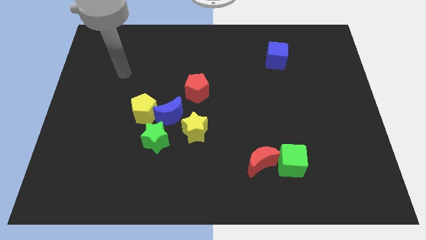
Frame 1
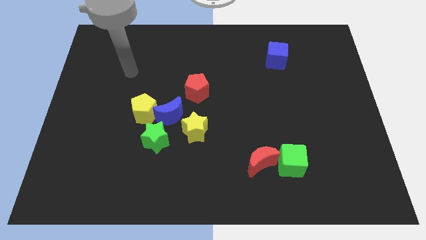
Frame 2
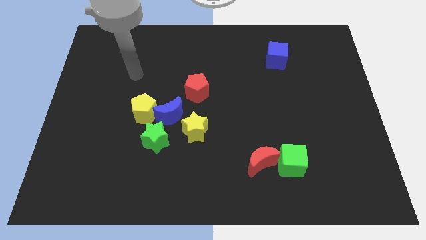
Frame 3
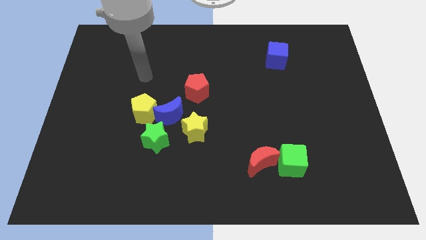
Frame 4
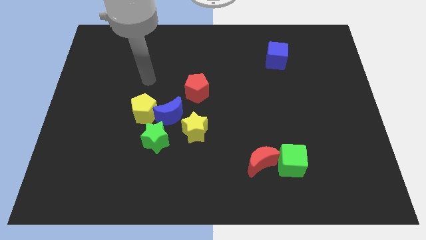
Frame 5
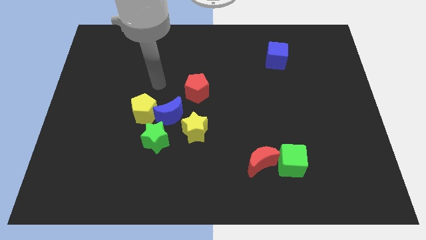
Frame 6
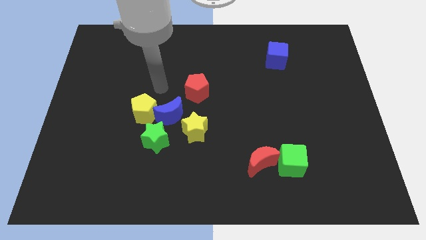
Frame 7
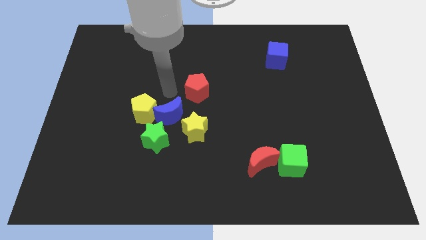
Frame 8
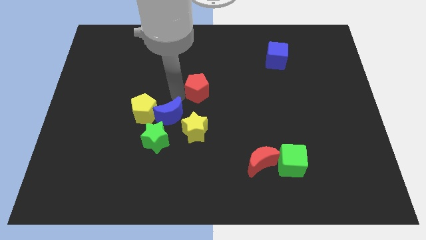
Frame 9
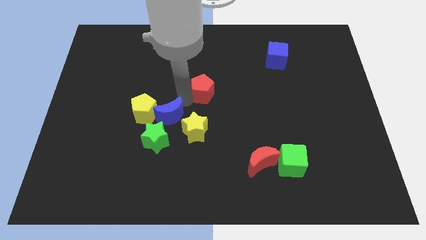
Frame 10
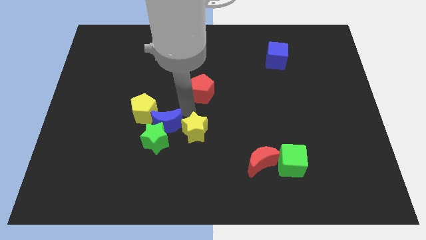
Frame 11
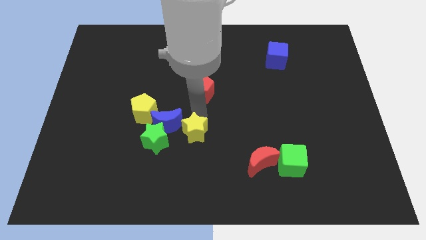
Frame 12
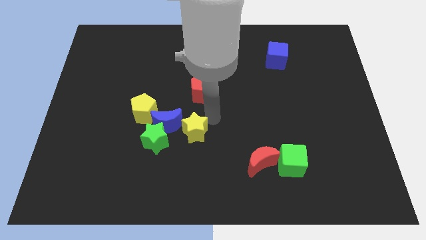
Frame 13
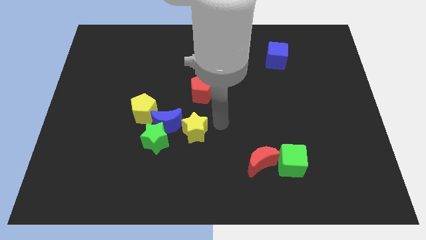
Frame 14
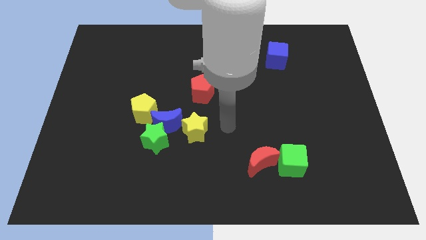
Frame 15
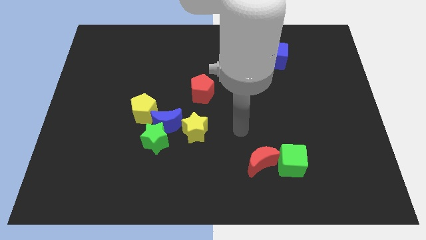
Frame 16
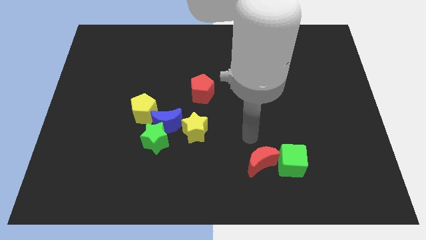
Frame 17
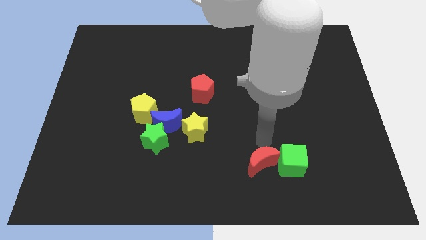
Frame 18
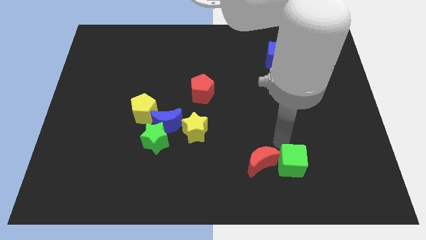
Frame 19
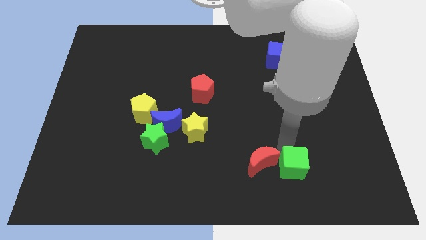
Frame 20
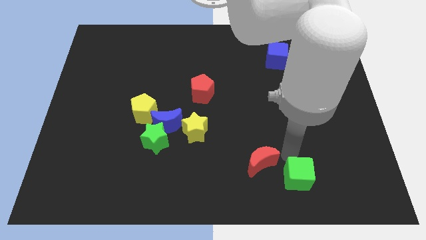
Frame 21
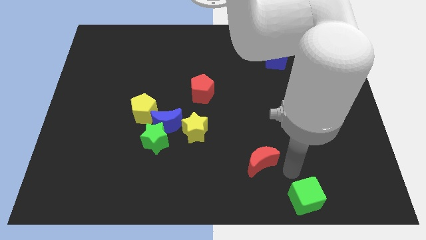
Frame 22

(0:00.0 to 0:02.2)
separate the red moon from the green cube

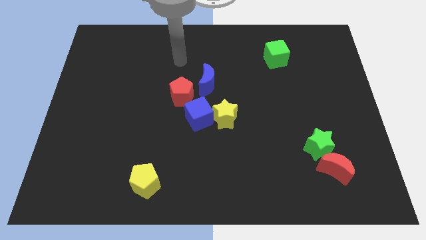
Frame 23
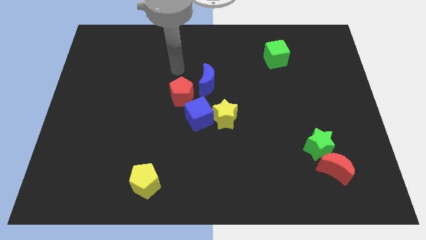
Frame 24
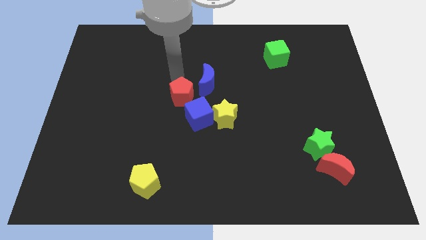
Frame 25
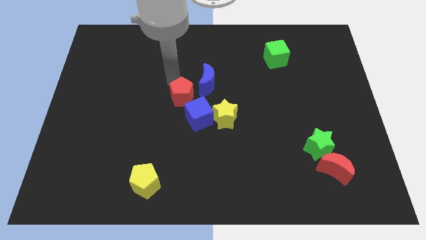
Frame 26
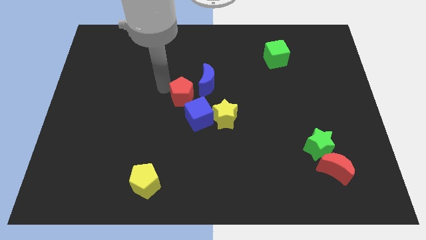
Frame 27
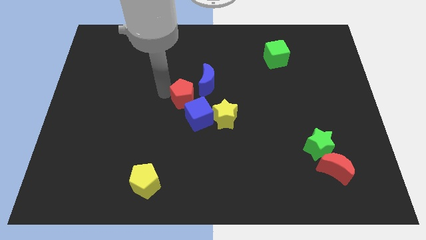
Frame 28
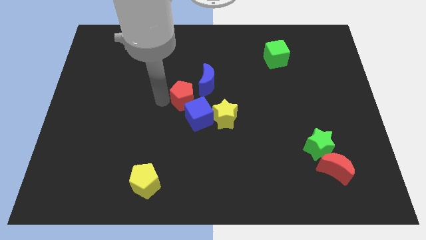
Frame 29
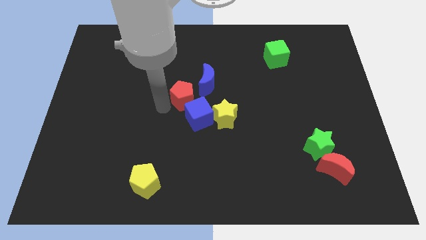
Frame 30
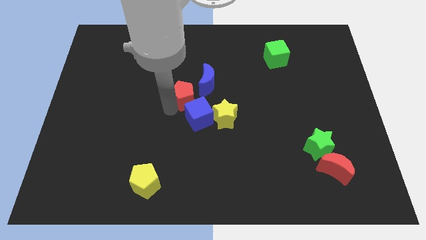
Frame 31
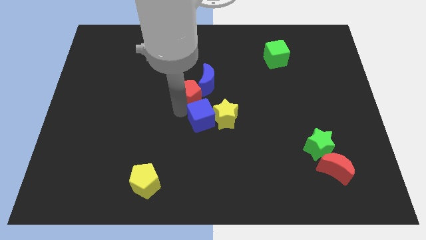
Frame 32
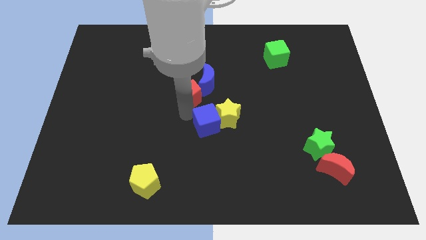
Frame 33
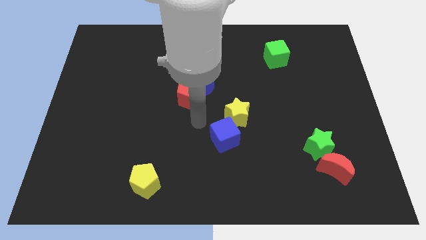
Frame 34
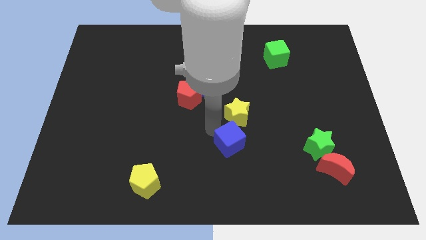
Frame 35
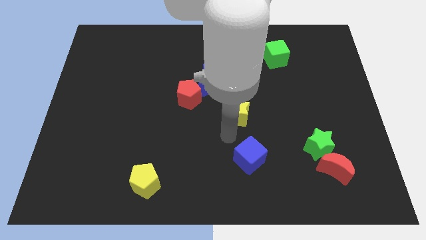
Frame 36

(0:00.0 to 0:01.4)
pull the yellow star apart from the blue cube

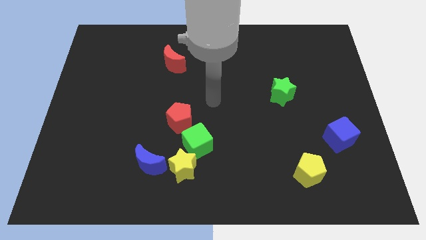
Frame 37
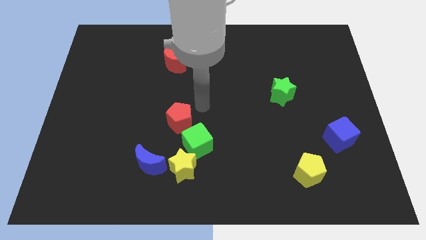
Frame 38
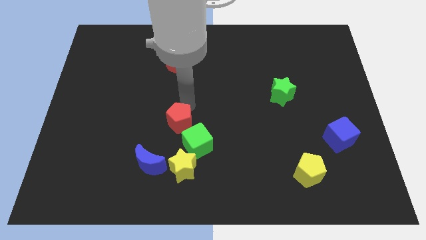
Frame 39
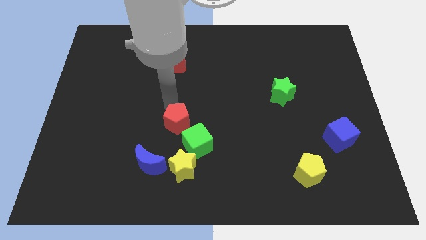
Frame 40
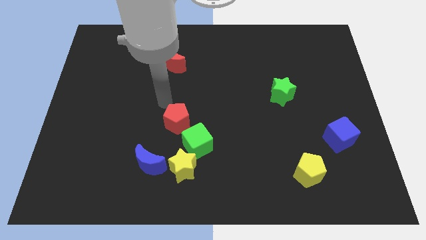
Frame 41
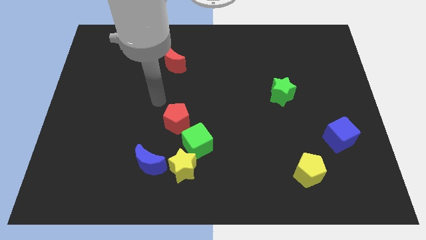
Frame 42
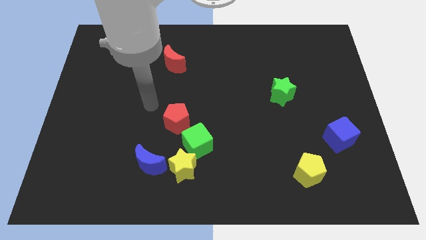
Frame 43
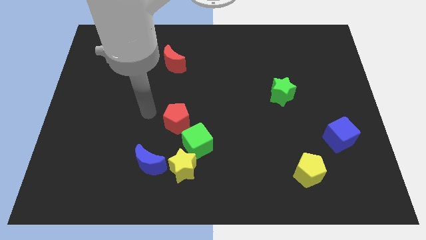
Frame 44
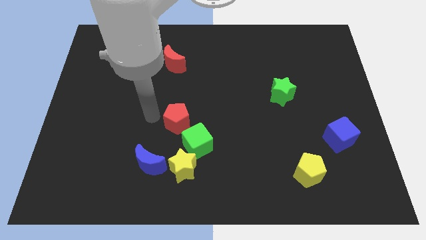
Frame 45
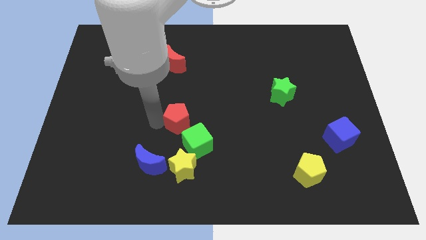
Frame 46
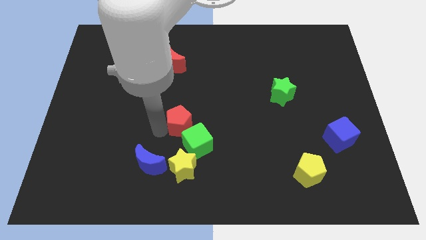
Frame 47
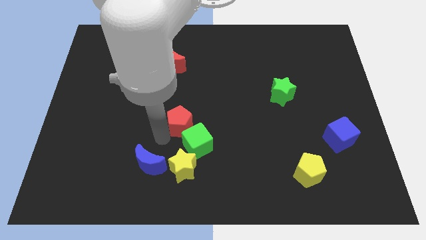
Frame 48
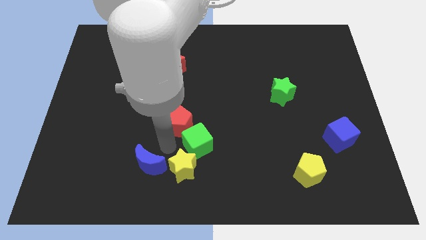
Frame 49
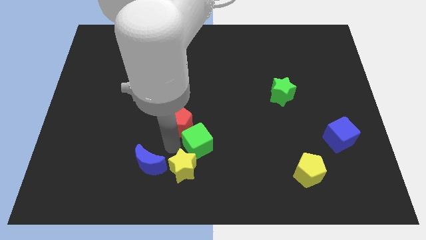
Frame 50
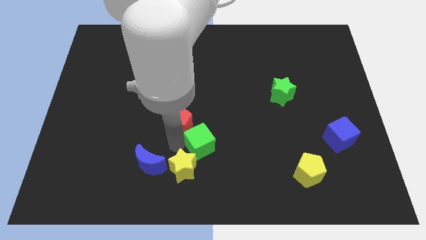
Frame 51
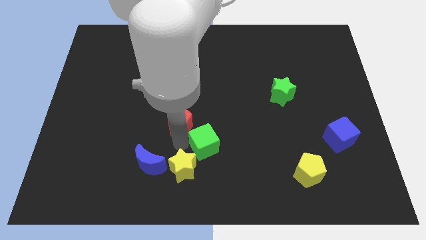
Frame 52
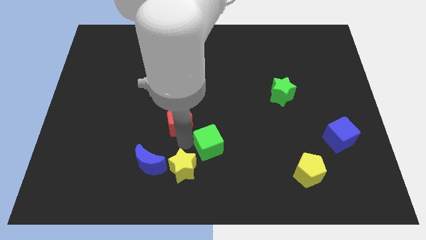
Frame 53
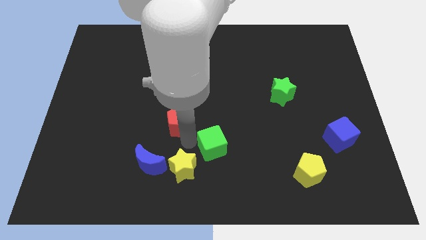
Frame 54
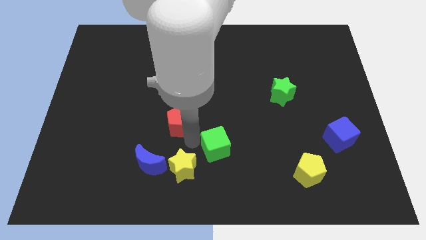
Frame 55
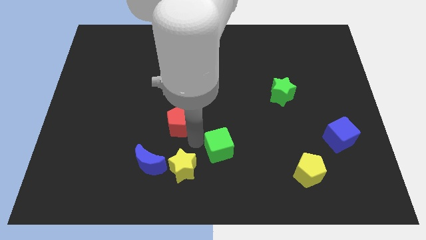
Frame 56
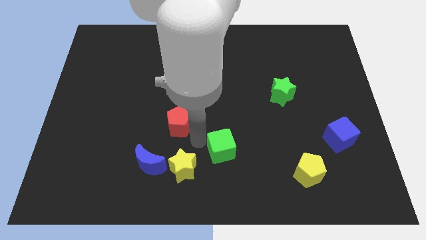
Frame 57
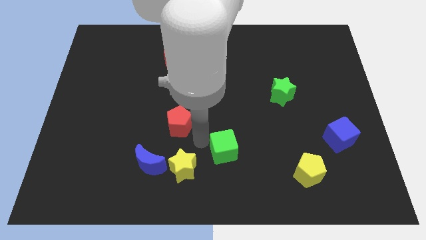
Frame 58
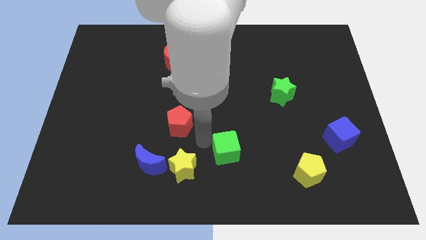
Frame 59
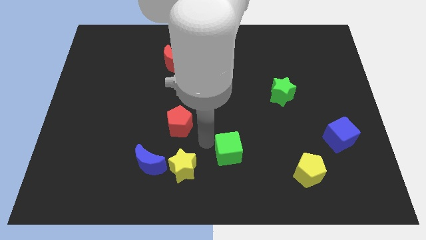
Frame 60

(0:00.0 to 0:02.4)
pull the green cube apart from the yellow star and red pentagon

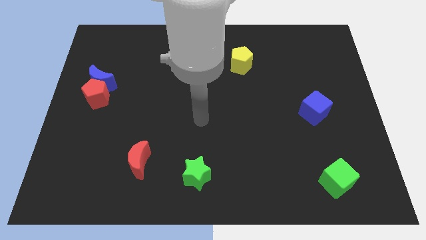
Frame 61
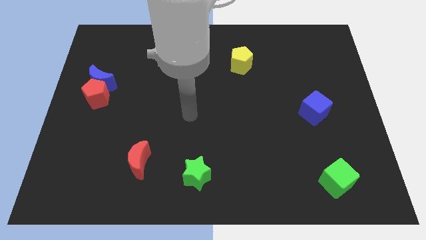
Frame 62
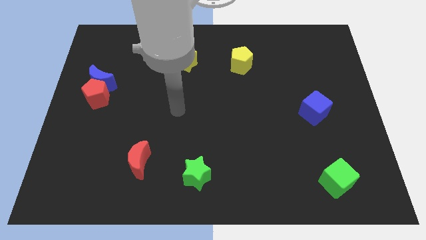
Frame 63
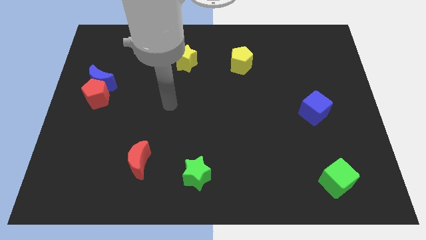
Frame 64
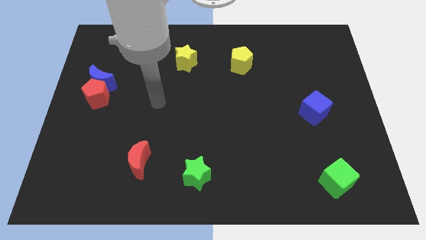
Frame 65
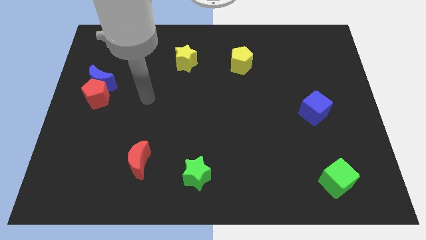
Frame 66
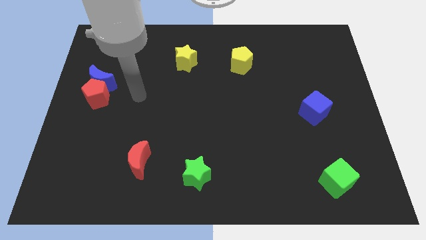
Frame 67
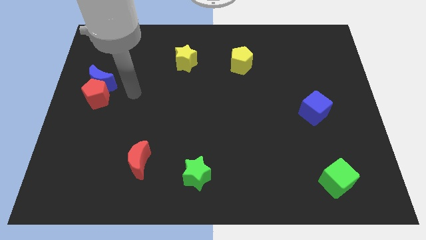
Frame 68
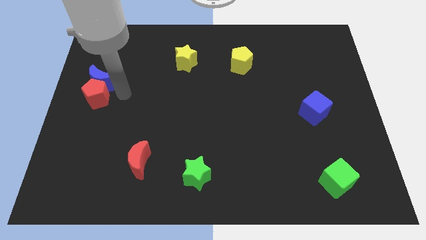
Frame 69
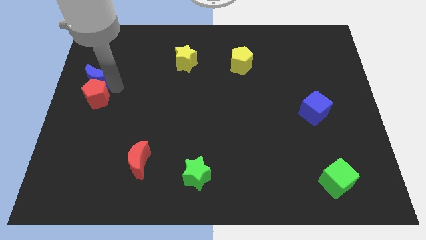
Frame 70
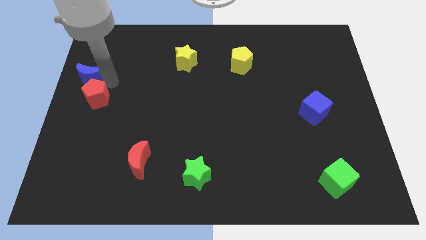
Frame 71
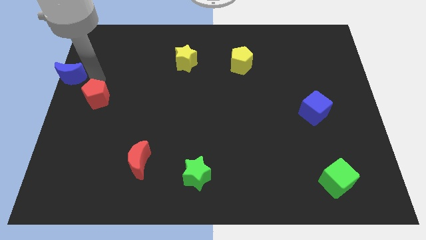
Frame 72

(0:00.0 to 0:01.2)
pull the red pentagon apart from the blue moon

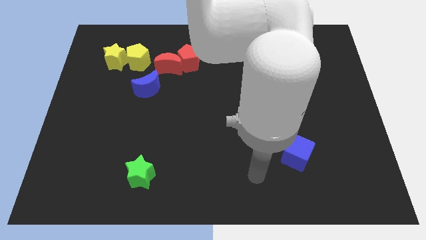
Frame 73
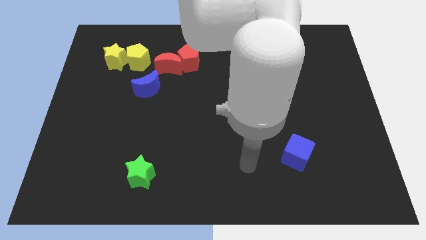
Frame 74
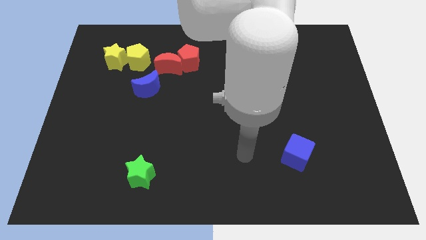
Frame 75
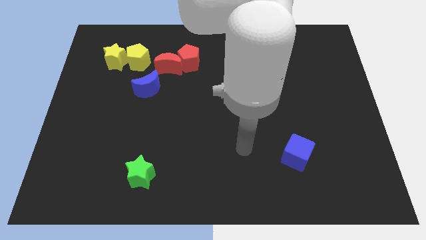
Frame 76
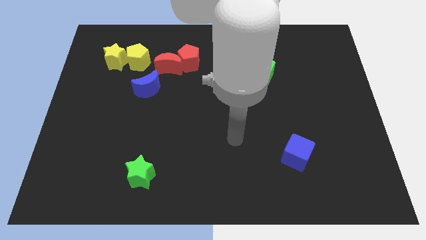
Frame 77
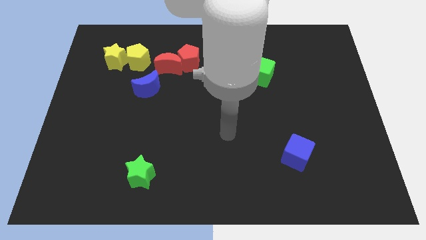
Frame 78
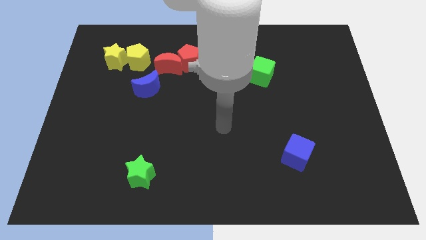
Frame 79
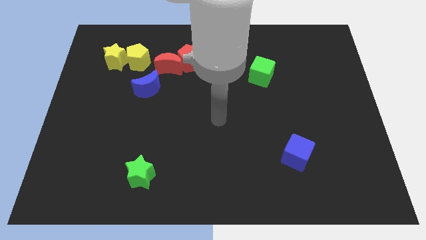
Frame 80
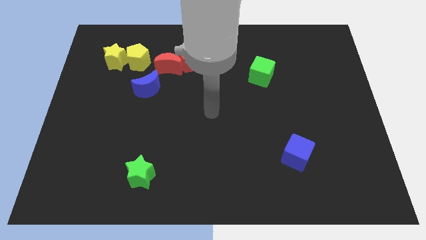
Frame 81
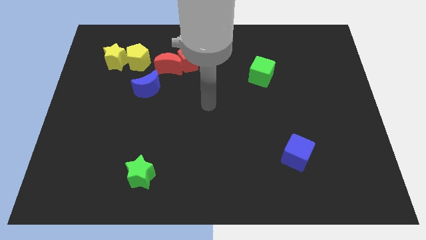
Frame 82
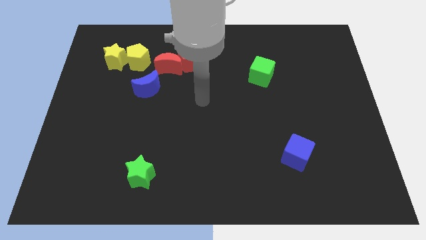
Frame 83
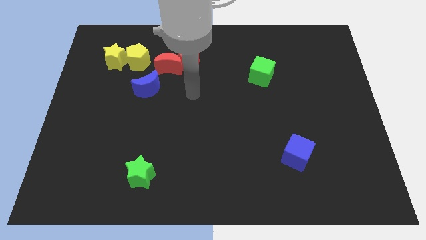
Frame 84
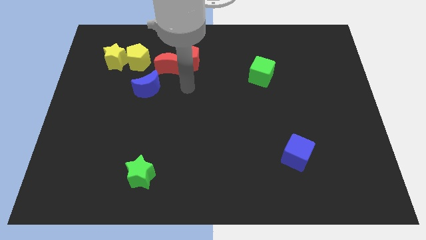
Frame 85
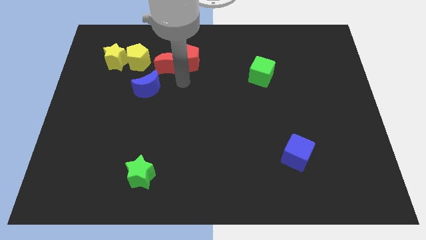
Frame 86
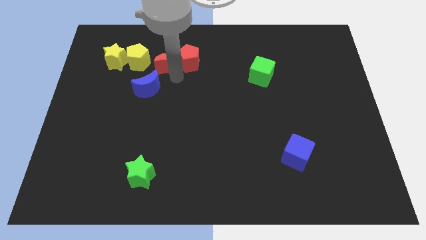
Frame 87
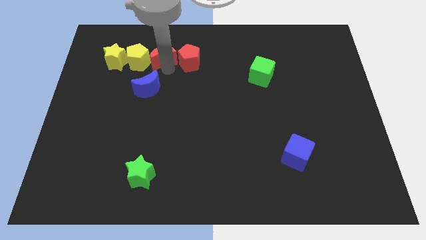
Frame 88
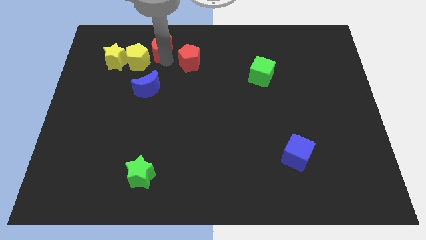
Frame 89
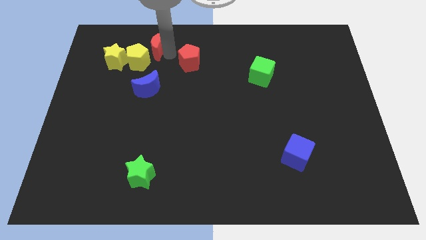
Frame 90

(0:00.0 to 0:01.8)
separate the red pentagon from the red moon

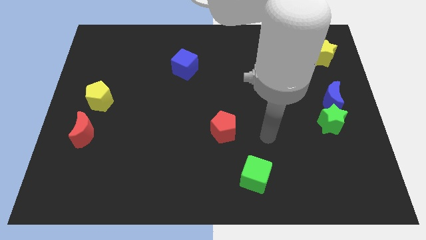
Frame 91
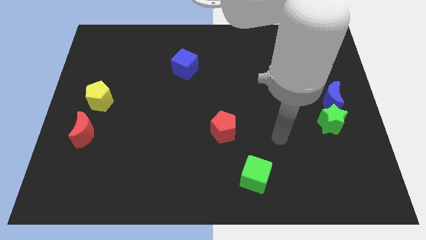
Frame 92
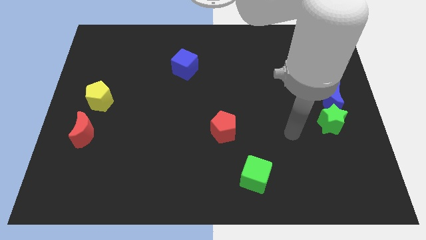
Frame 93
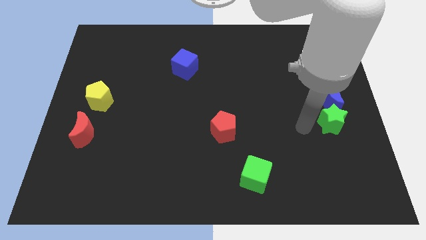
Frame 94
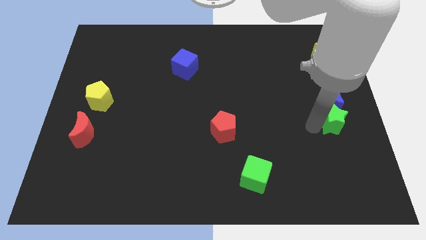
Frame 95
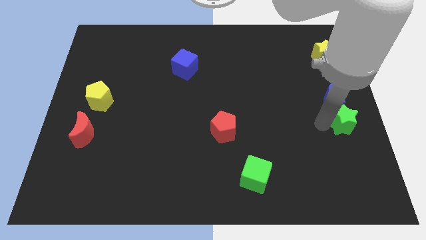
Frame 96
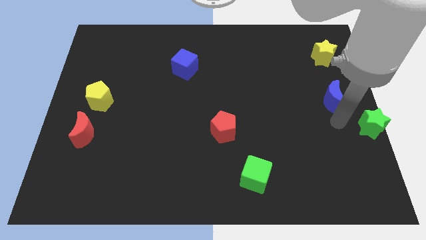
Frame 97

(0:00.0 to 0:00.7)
separate the blue moon from the green star
